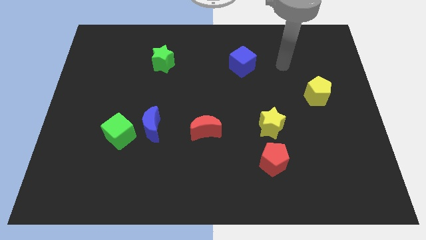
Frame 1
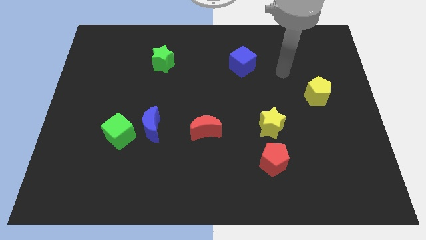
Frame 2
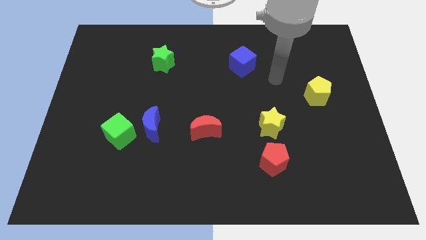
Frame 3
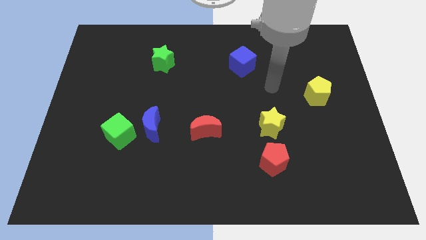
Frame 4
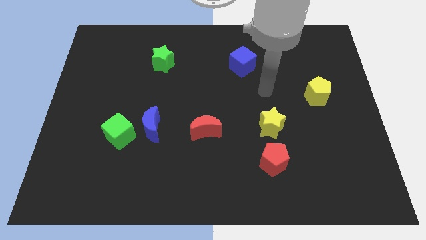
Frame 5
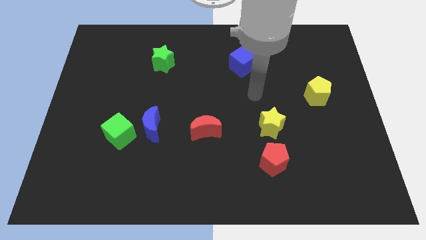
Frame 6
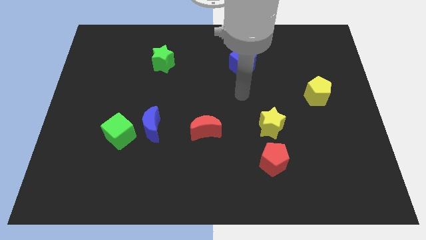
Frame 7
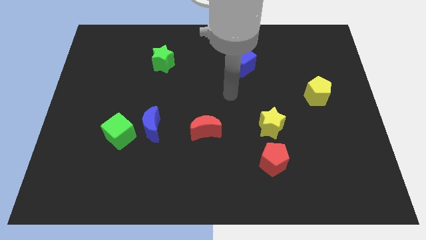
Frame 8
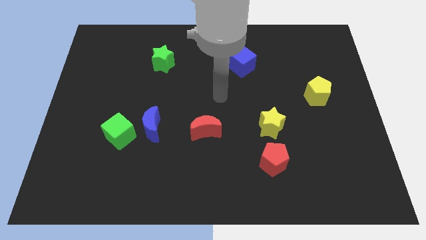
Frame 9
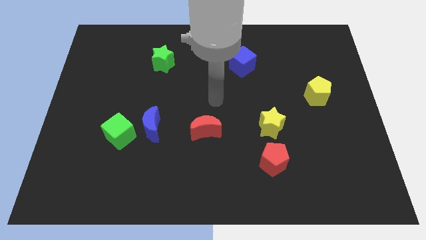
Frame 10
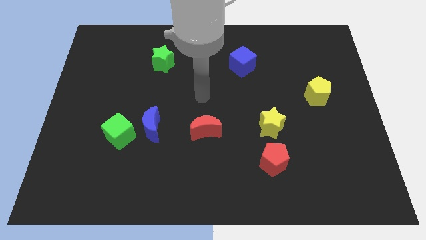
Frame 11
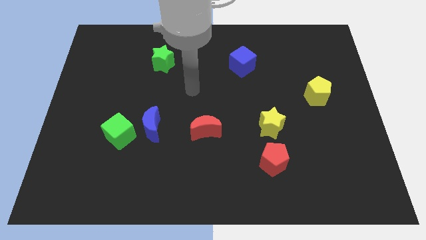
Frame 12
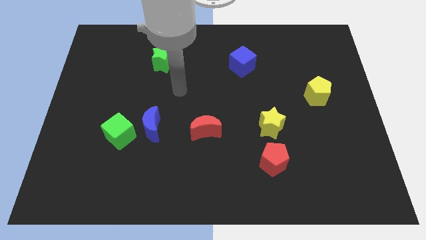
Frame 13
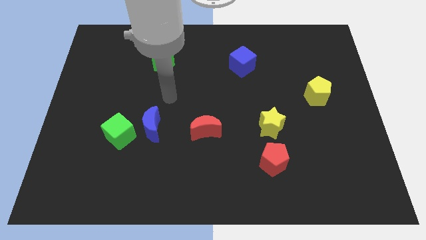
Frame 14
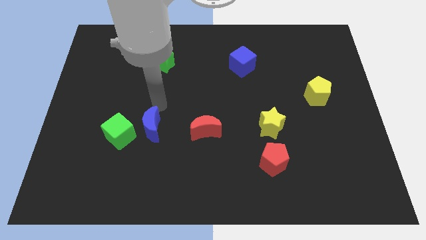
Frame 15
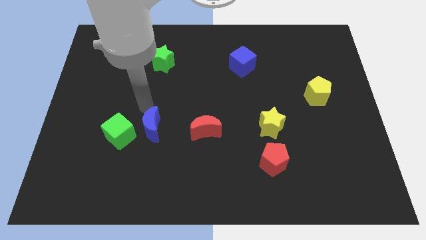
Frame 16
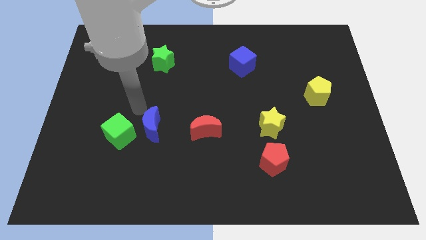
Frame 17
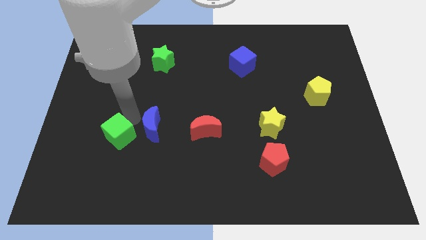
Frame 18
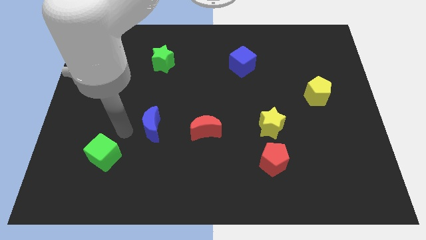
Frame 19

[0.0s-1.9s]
separate the blue moon from the green cube

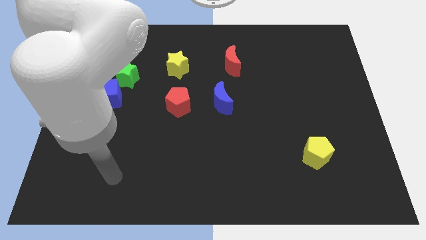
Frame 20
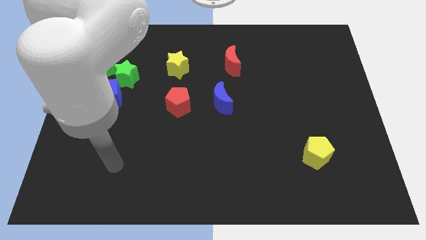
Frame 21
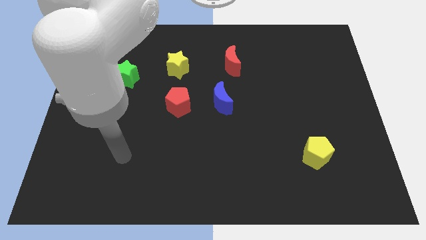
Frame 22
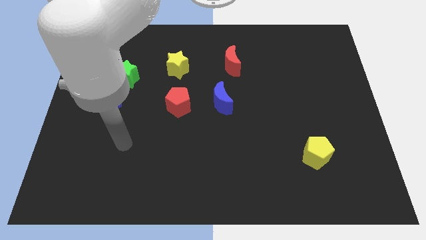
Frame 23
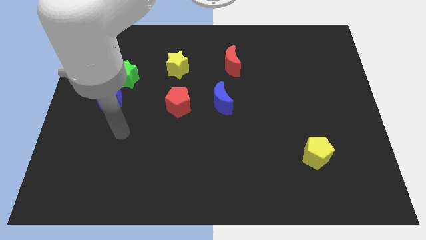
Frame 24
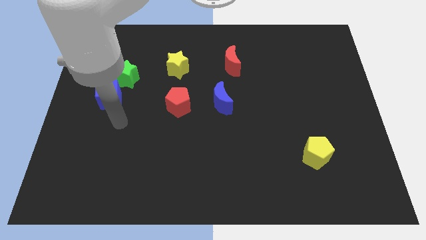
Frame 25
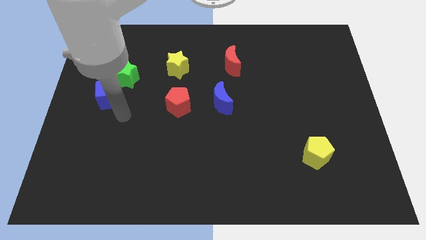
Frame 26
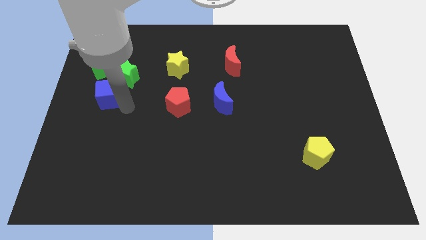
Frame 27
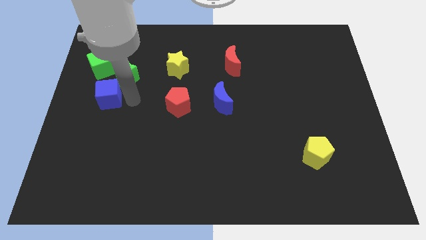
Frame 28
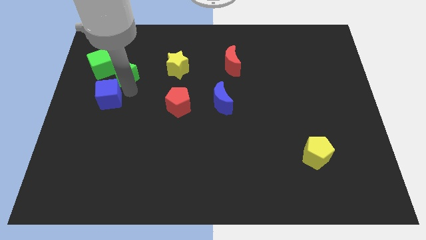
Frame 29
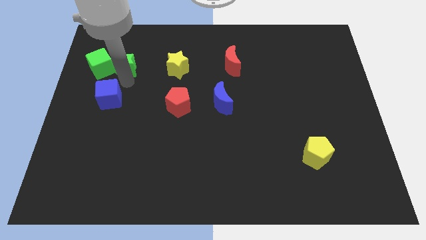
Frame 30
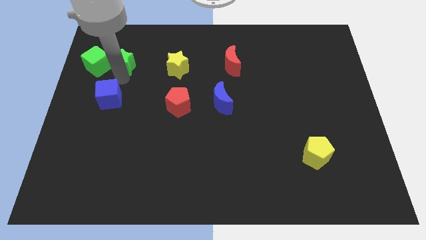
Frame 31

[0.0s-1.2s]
pull the blue cube apart from the green star

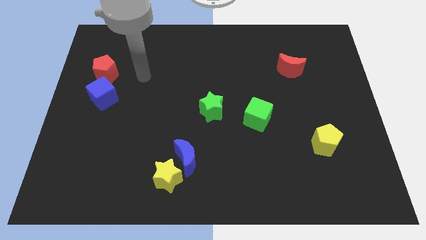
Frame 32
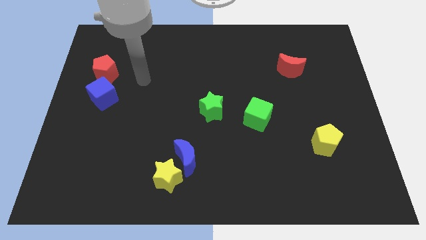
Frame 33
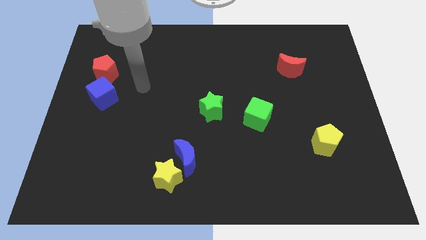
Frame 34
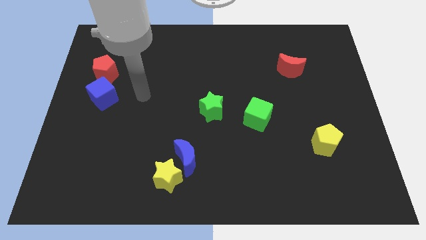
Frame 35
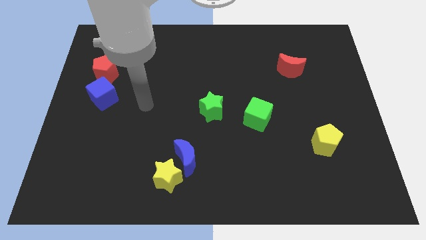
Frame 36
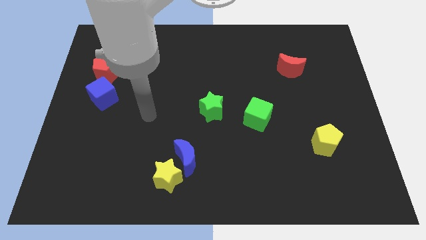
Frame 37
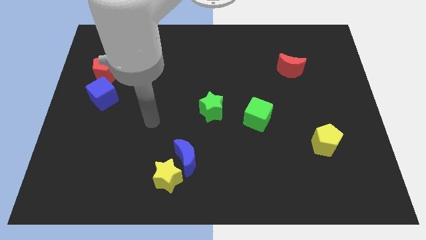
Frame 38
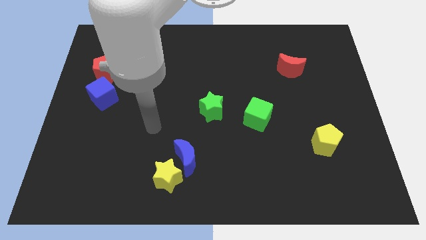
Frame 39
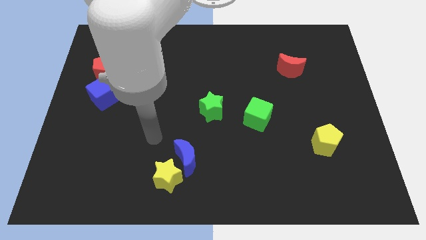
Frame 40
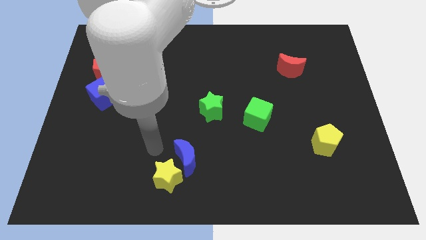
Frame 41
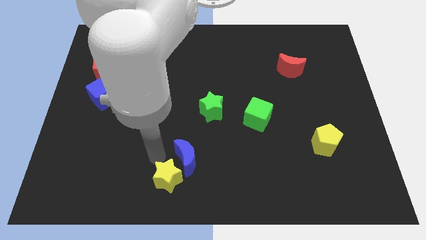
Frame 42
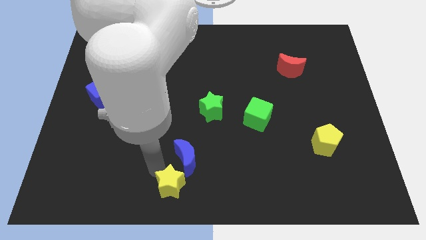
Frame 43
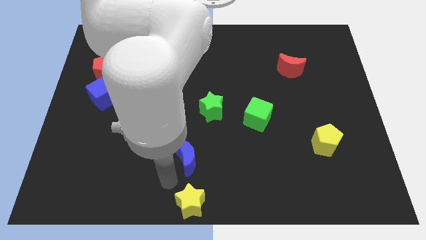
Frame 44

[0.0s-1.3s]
separate the blue moon from the yellow star

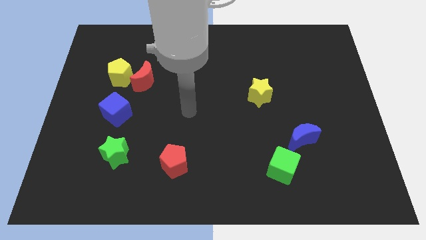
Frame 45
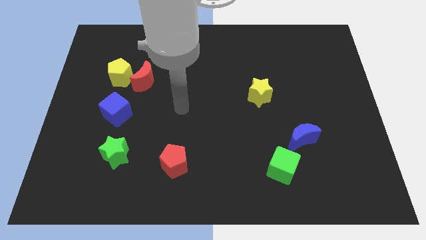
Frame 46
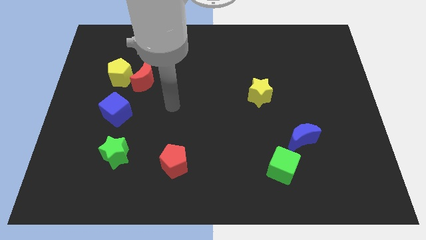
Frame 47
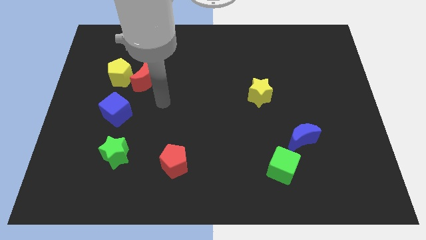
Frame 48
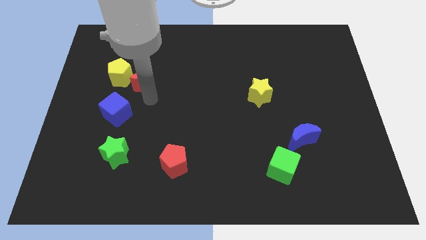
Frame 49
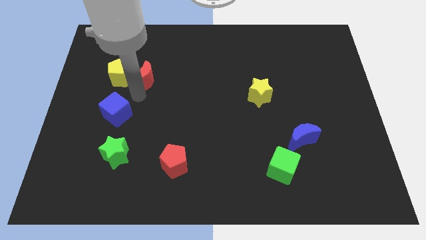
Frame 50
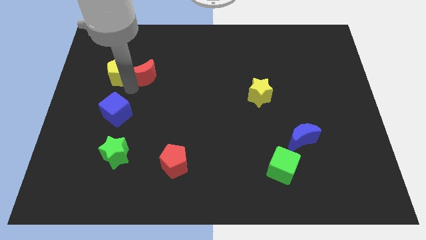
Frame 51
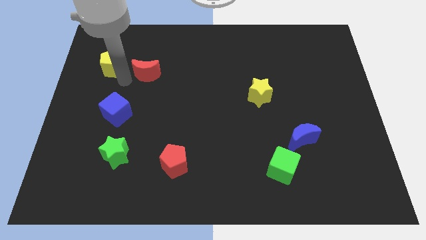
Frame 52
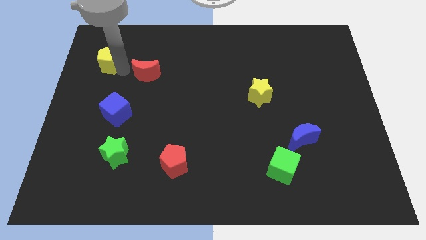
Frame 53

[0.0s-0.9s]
move the red moon away from the yellow pentagon

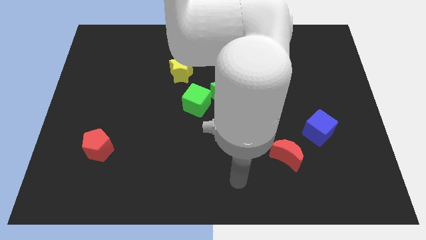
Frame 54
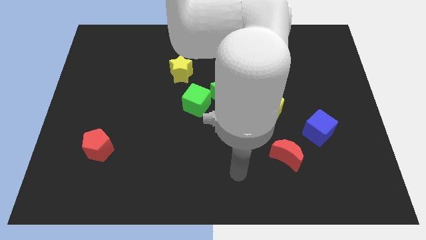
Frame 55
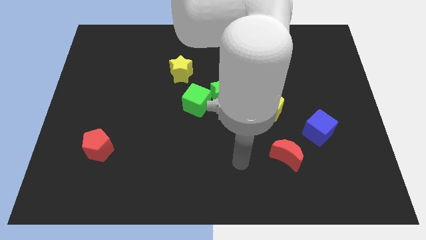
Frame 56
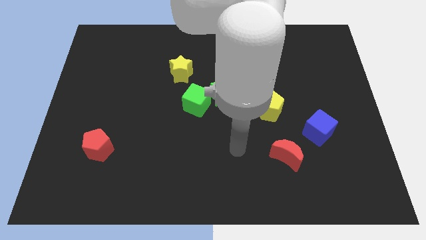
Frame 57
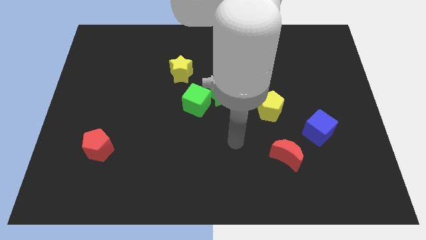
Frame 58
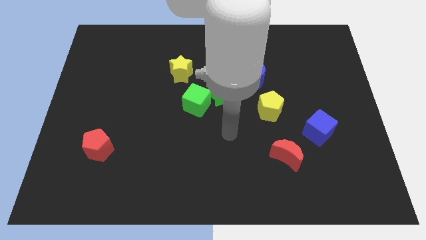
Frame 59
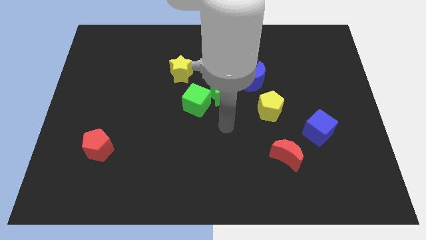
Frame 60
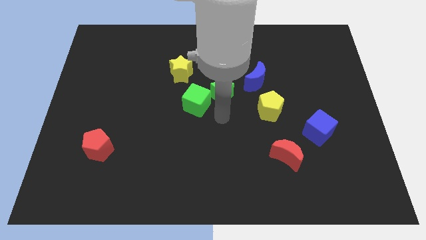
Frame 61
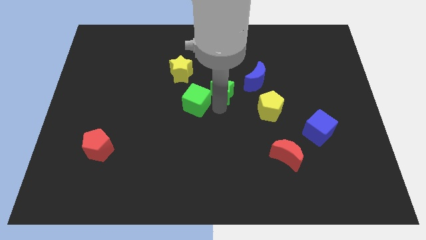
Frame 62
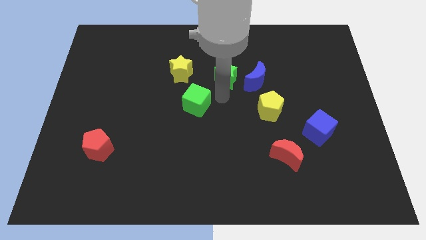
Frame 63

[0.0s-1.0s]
separate the green cube from the green star

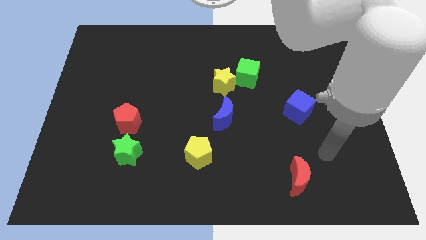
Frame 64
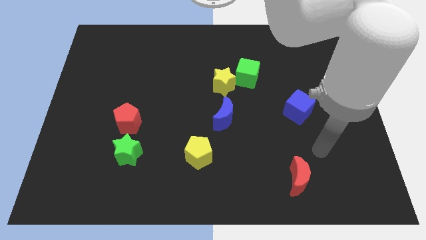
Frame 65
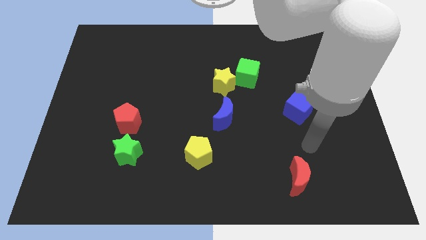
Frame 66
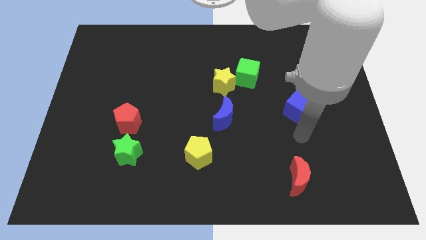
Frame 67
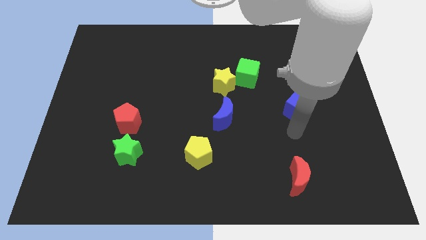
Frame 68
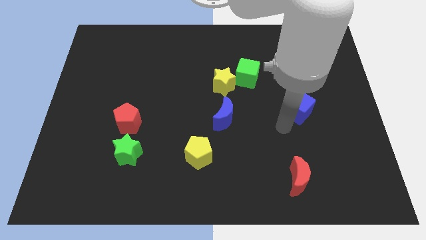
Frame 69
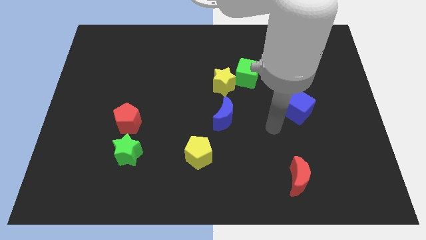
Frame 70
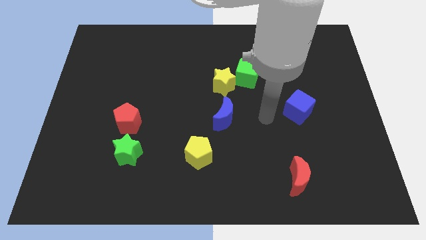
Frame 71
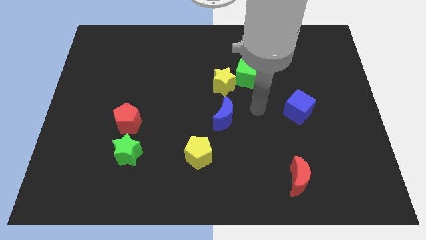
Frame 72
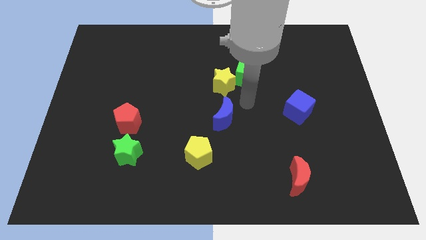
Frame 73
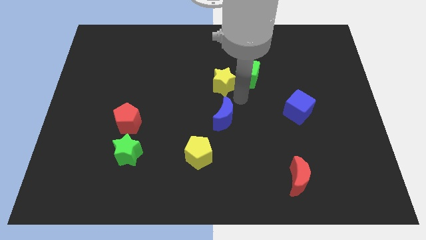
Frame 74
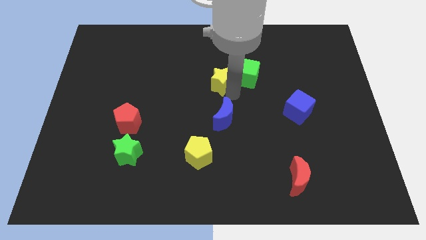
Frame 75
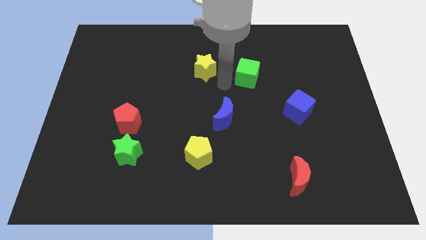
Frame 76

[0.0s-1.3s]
pull the green cube apart from the yellow star

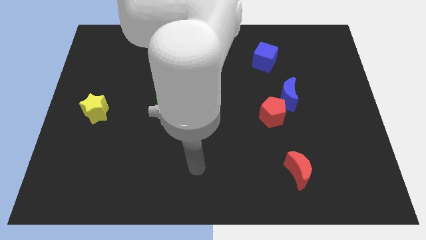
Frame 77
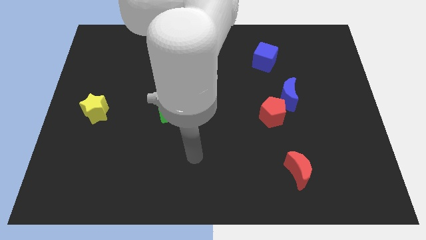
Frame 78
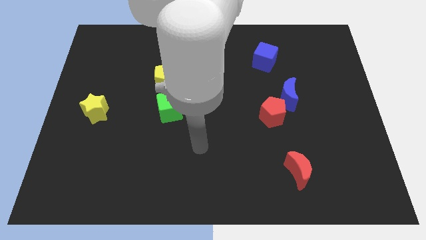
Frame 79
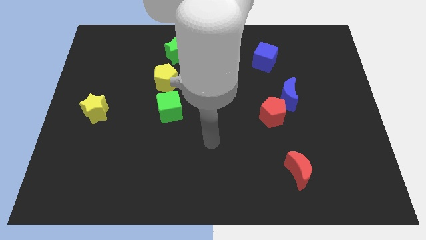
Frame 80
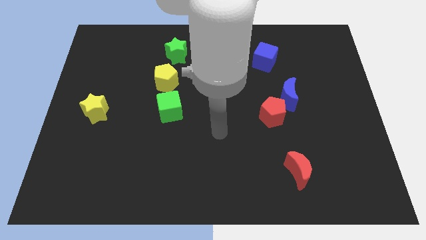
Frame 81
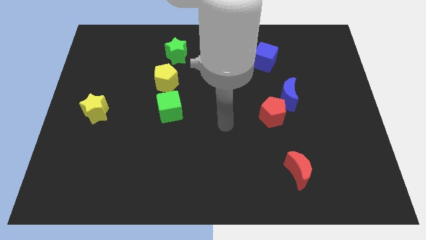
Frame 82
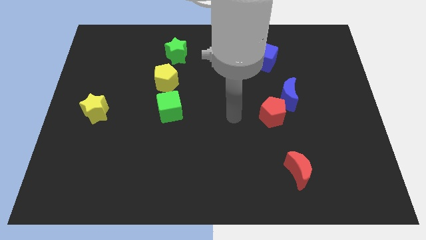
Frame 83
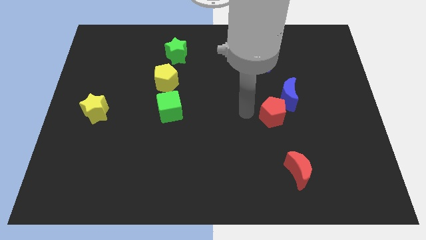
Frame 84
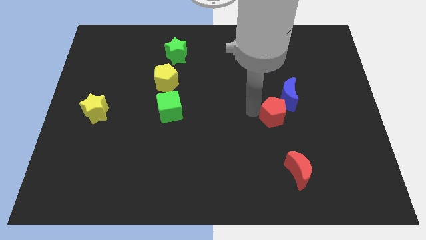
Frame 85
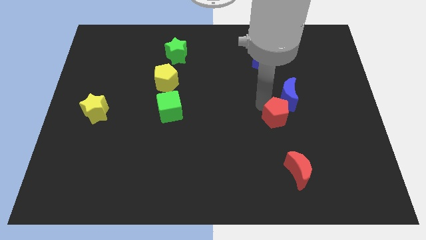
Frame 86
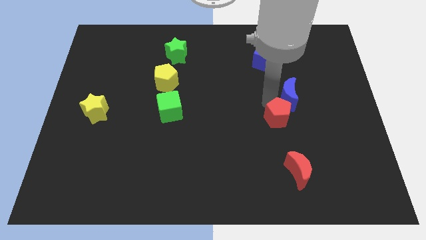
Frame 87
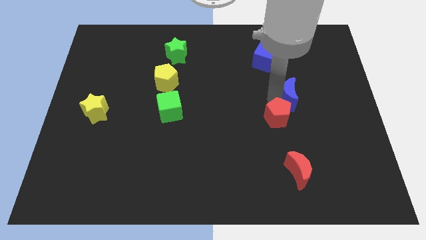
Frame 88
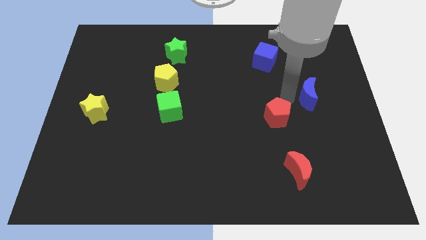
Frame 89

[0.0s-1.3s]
move the red pentagon away from the blue moon

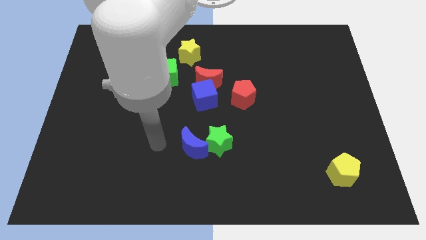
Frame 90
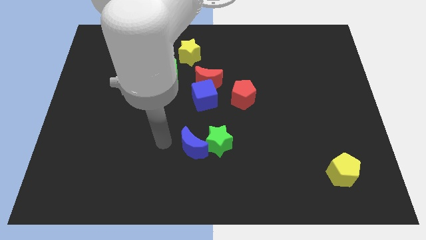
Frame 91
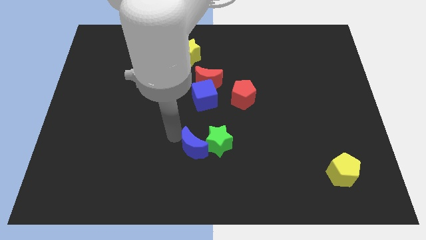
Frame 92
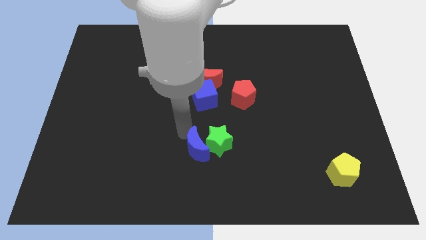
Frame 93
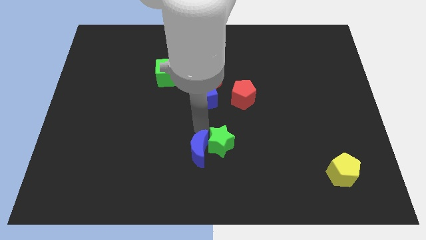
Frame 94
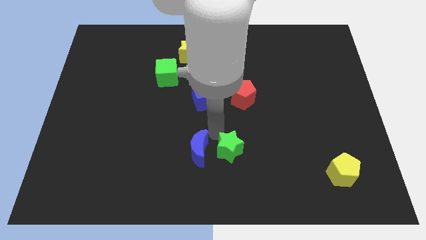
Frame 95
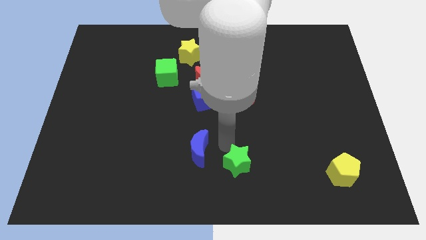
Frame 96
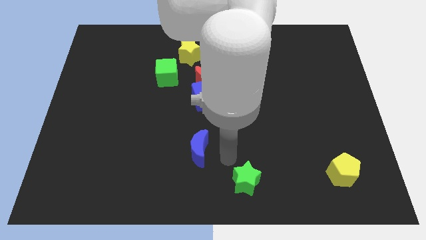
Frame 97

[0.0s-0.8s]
separate the blue moon from the green star
